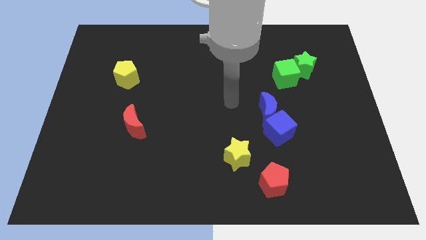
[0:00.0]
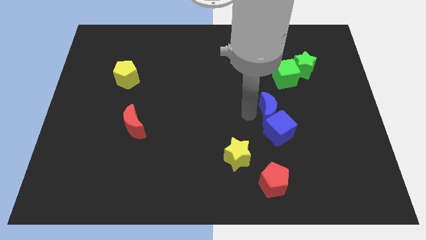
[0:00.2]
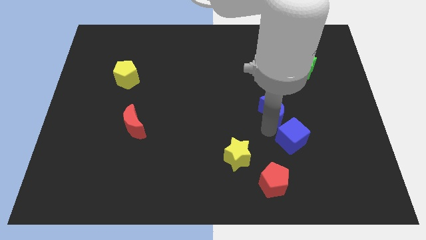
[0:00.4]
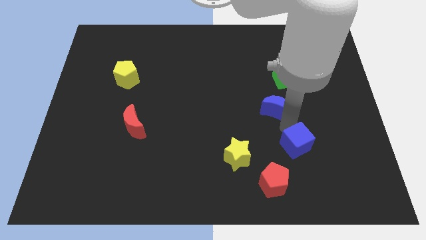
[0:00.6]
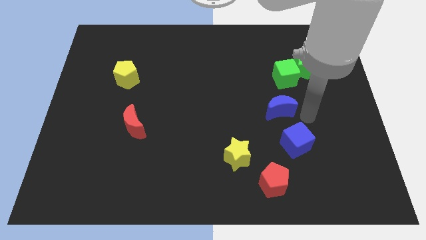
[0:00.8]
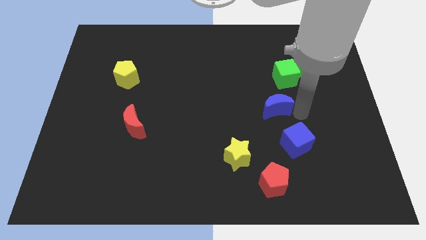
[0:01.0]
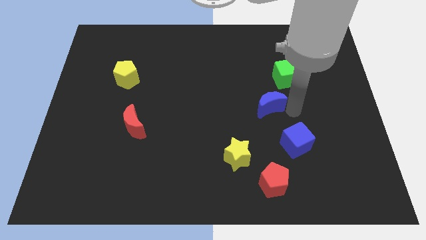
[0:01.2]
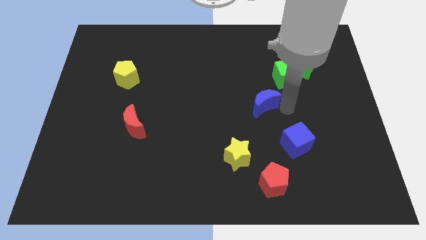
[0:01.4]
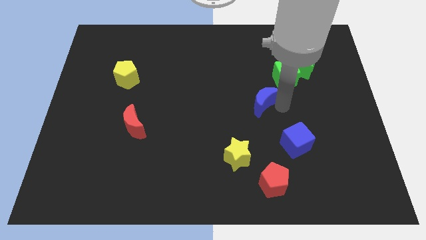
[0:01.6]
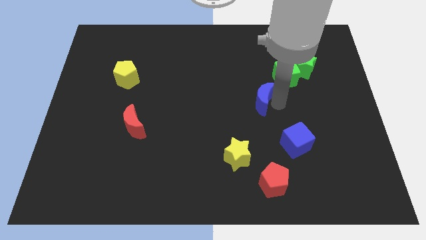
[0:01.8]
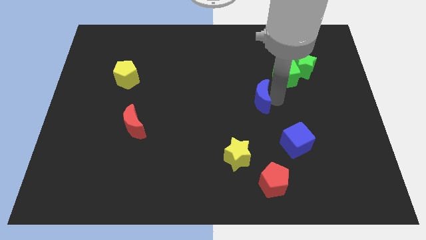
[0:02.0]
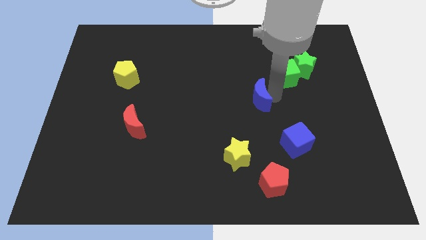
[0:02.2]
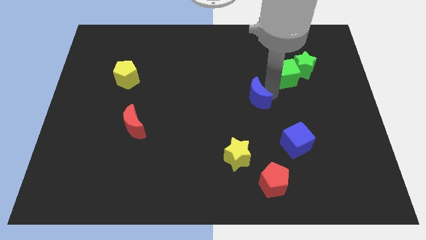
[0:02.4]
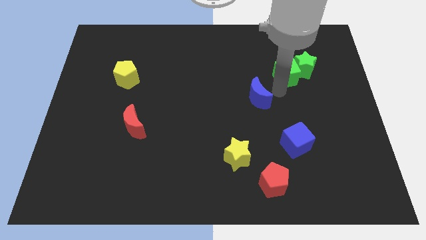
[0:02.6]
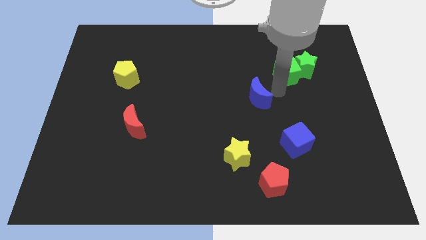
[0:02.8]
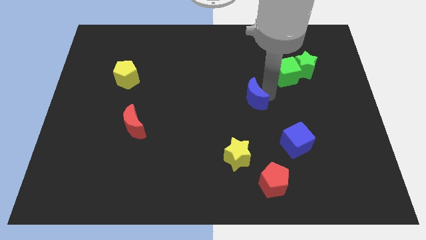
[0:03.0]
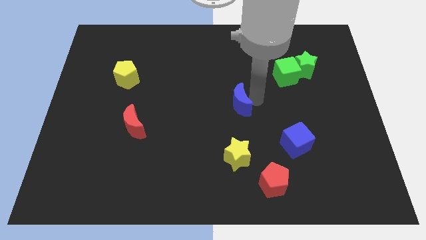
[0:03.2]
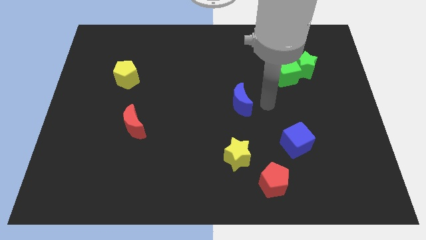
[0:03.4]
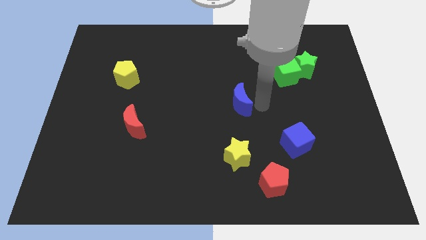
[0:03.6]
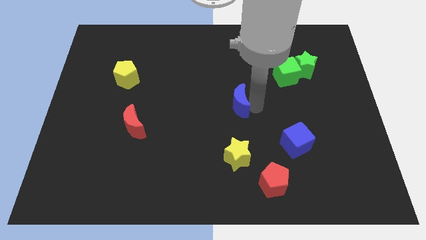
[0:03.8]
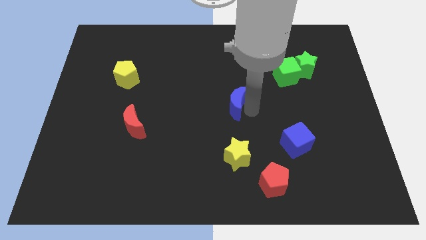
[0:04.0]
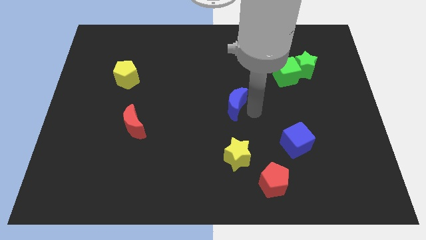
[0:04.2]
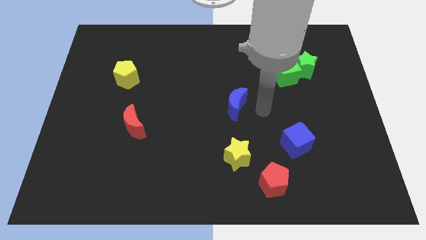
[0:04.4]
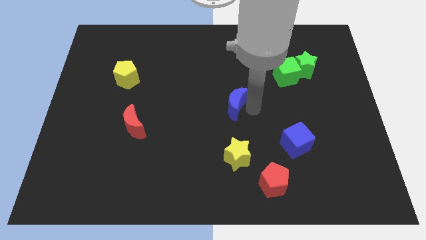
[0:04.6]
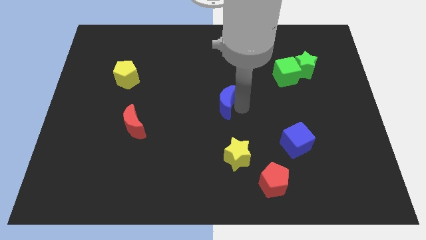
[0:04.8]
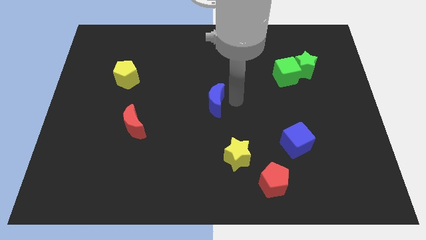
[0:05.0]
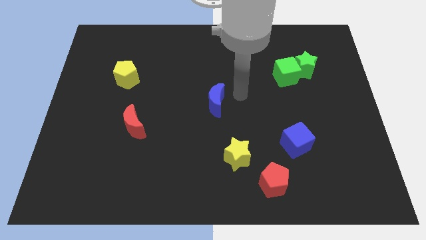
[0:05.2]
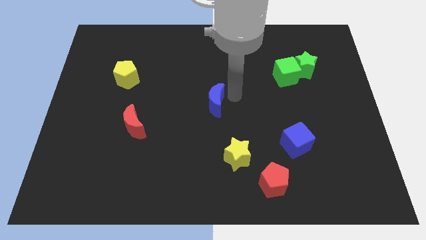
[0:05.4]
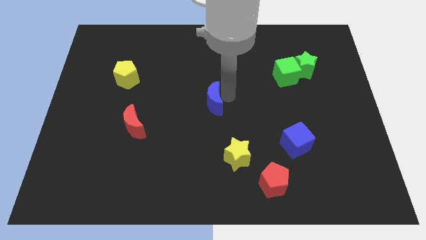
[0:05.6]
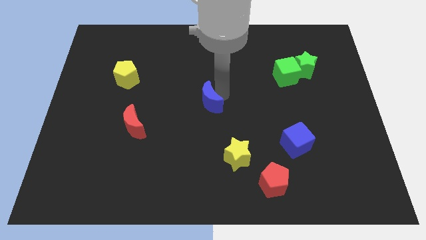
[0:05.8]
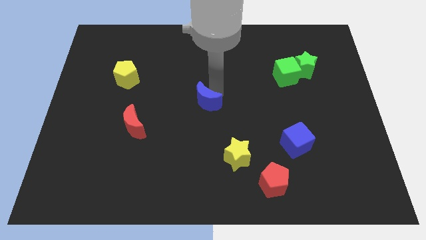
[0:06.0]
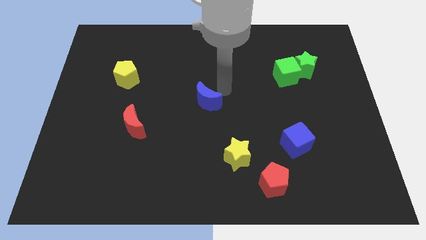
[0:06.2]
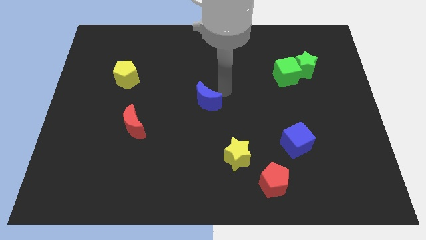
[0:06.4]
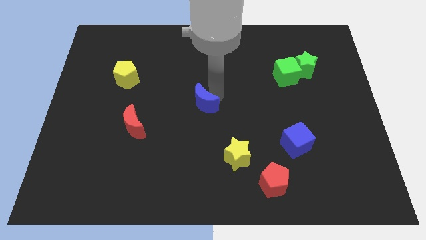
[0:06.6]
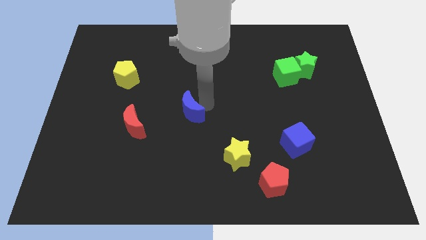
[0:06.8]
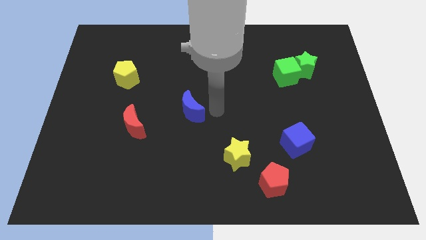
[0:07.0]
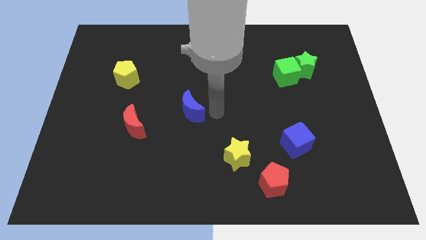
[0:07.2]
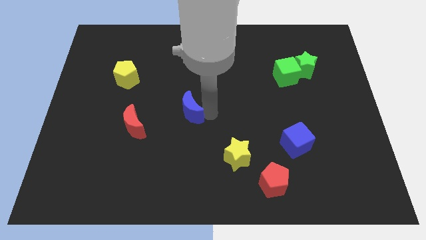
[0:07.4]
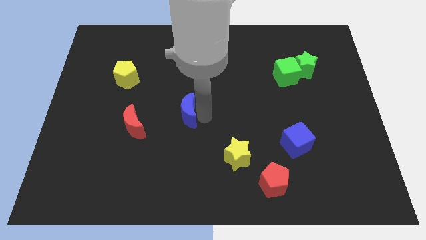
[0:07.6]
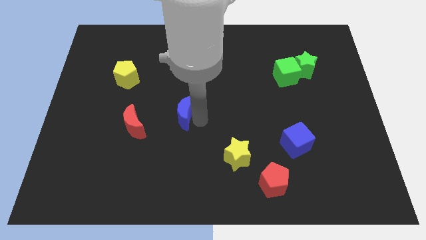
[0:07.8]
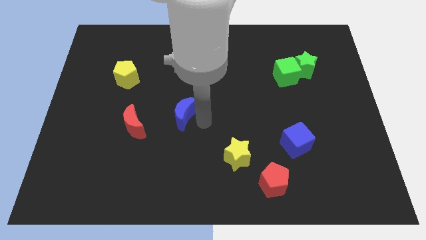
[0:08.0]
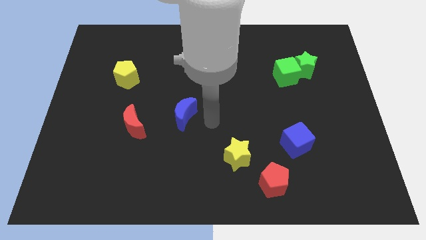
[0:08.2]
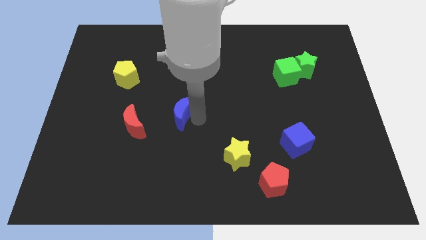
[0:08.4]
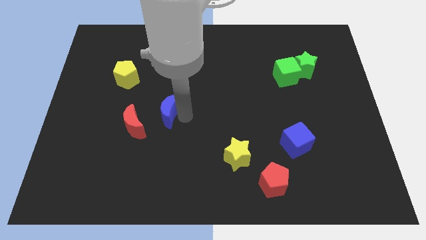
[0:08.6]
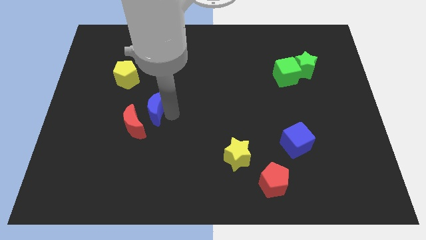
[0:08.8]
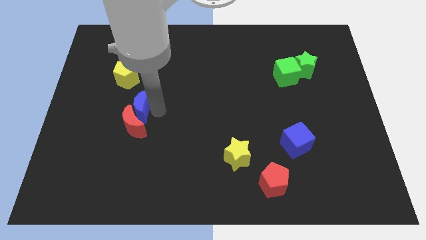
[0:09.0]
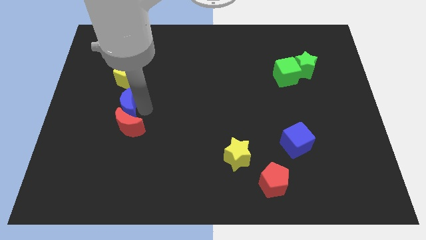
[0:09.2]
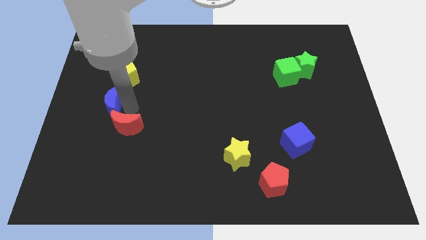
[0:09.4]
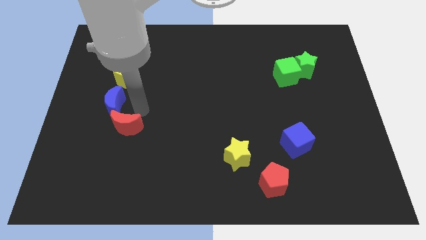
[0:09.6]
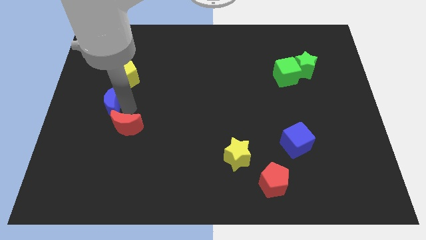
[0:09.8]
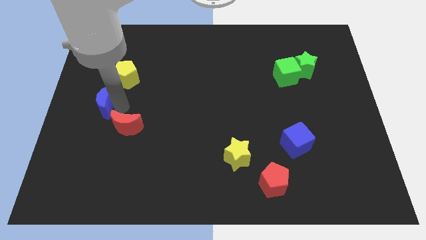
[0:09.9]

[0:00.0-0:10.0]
slide the blue moon to the left side

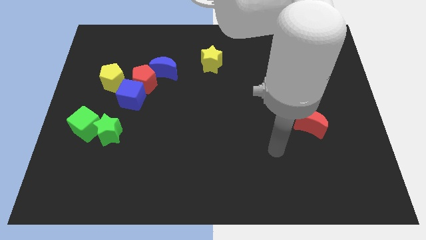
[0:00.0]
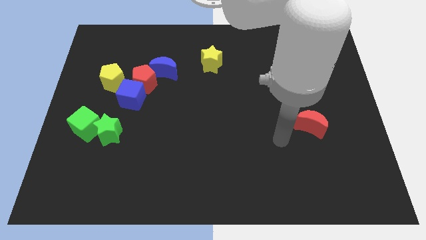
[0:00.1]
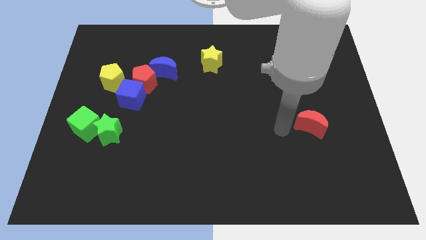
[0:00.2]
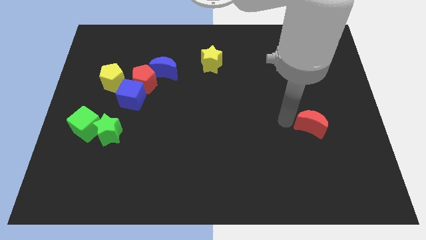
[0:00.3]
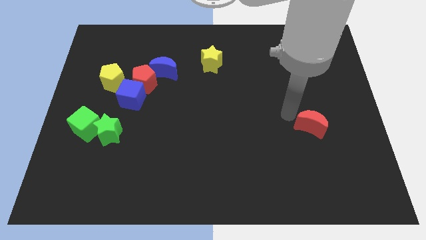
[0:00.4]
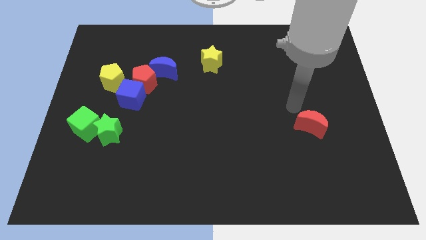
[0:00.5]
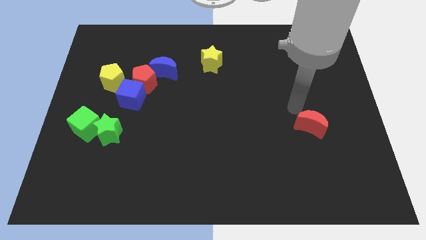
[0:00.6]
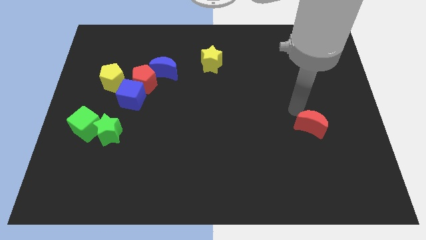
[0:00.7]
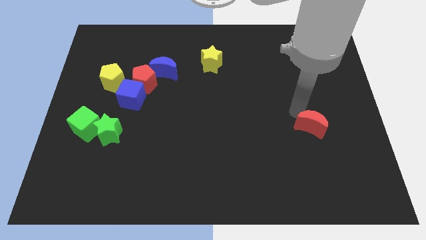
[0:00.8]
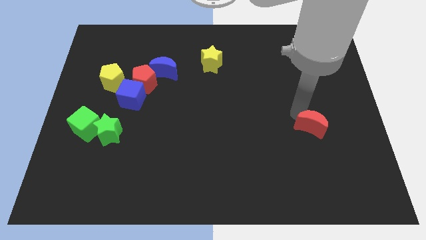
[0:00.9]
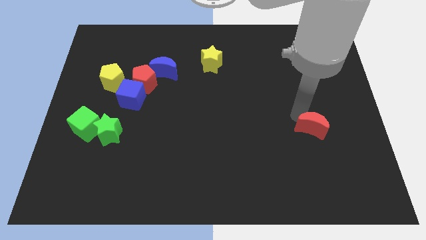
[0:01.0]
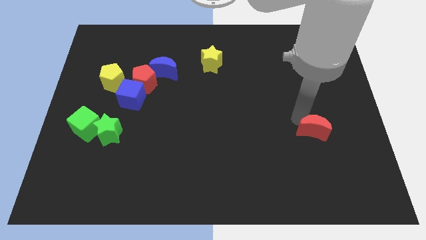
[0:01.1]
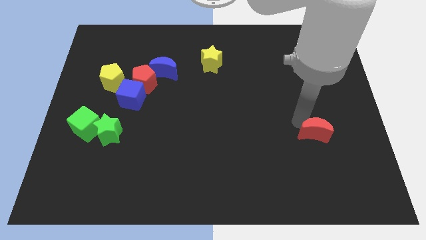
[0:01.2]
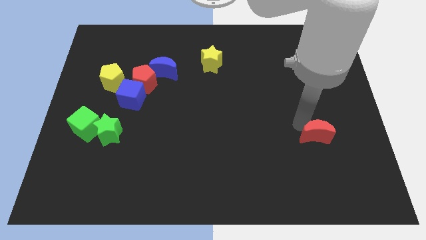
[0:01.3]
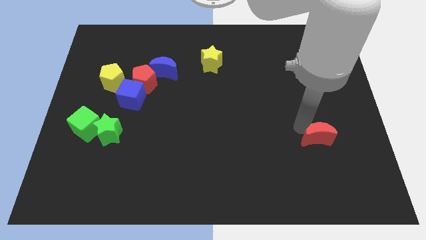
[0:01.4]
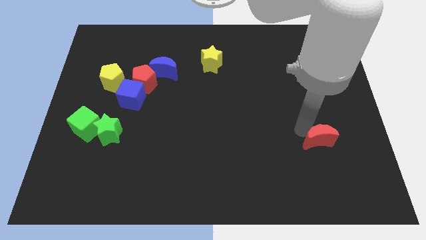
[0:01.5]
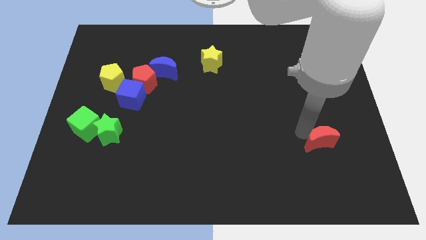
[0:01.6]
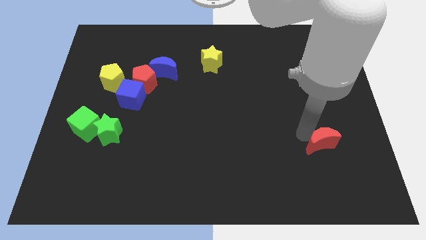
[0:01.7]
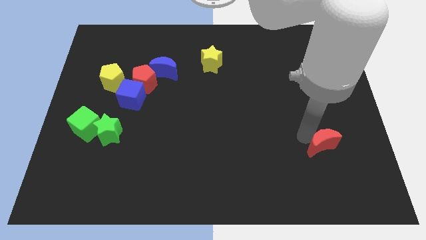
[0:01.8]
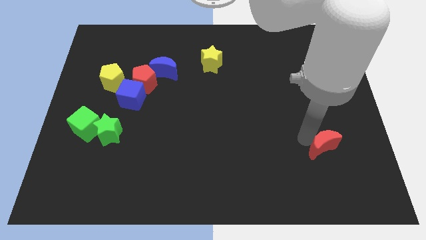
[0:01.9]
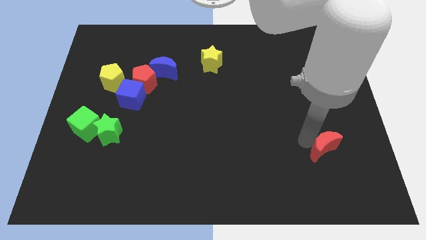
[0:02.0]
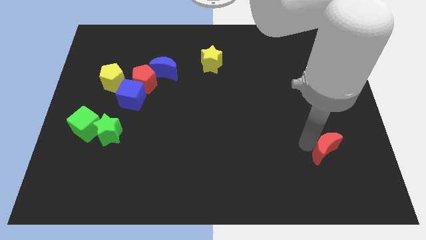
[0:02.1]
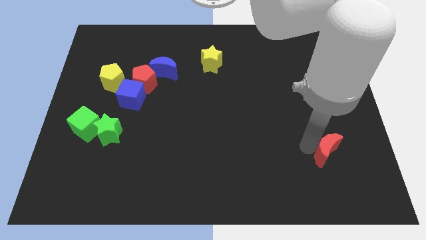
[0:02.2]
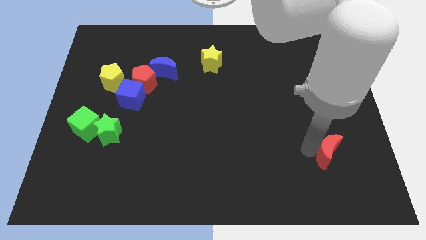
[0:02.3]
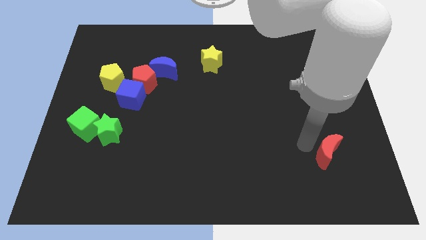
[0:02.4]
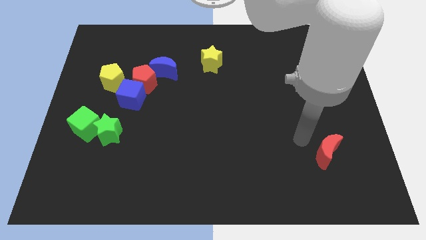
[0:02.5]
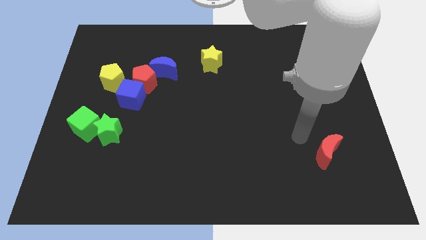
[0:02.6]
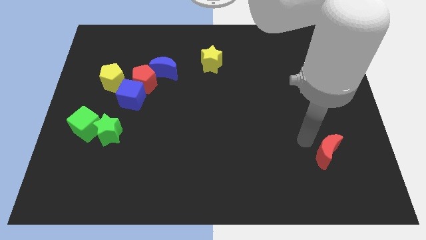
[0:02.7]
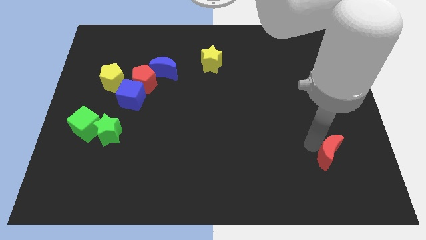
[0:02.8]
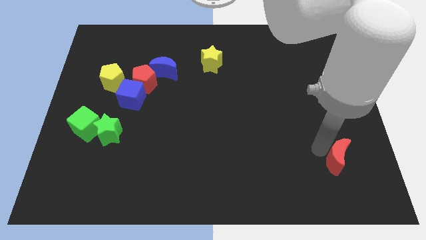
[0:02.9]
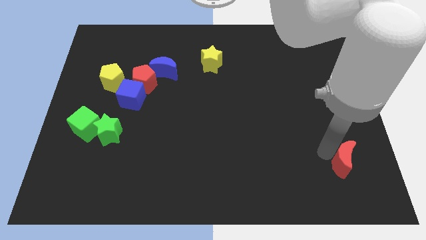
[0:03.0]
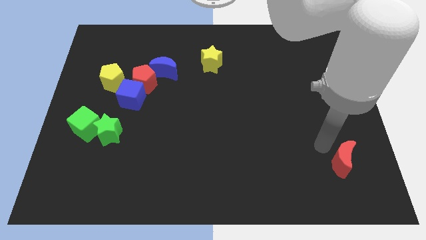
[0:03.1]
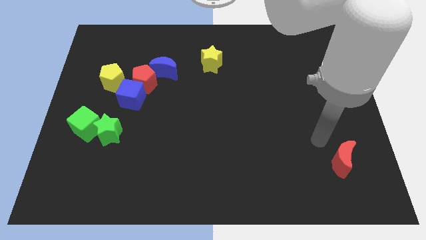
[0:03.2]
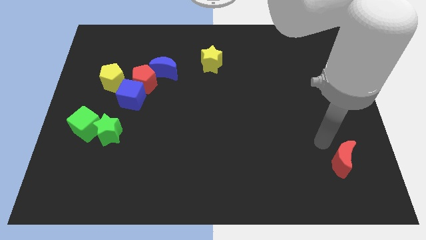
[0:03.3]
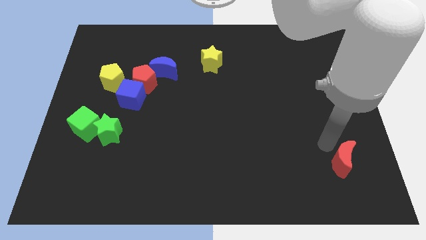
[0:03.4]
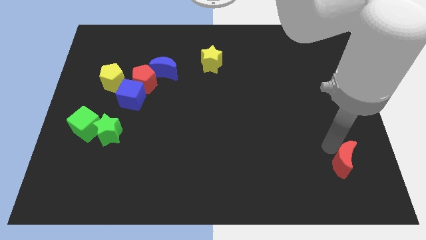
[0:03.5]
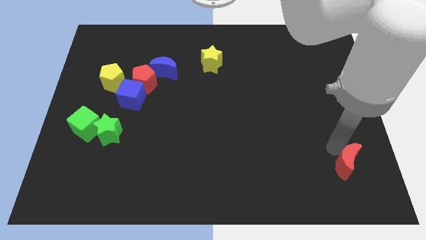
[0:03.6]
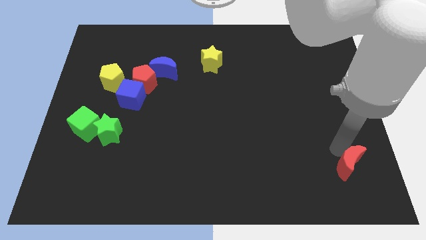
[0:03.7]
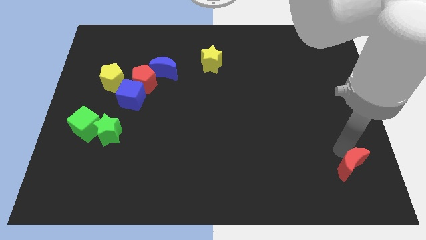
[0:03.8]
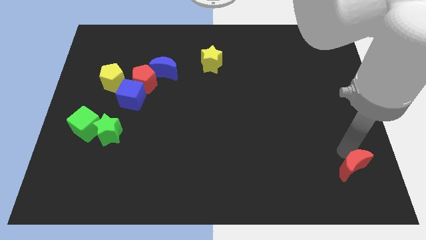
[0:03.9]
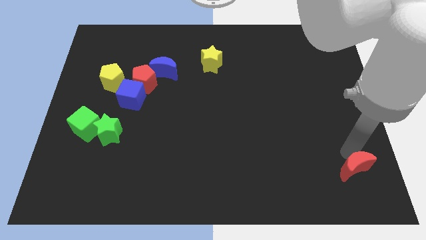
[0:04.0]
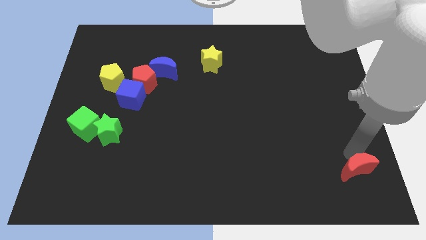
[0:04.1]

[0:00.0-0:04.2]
slide the red moon to the bottom right
